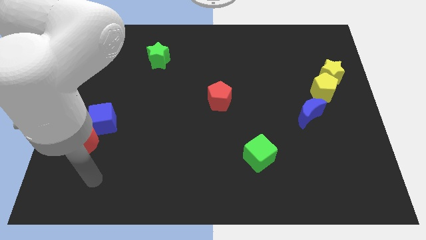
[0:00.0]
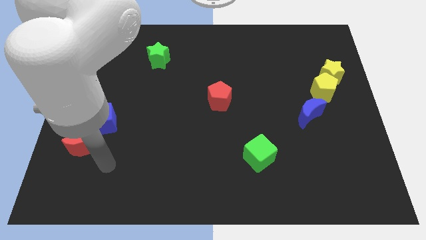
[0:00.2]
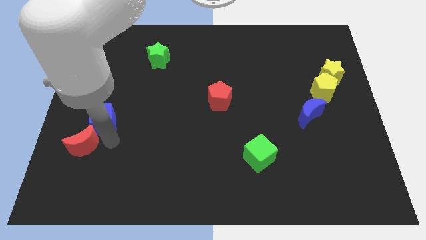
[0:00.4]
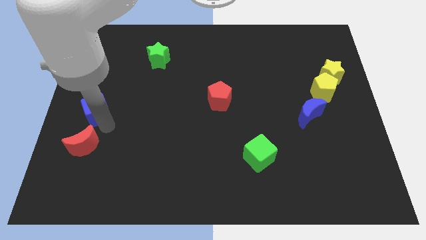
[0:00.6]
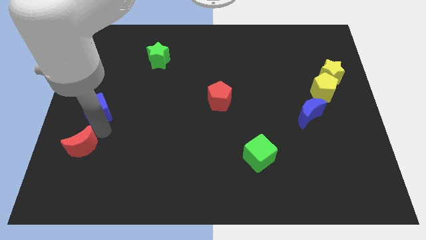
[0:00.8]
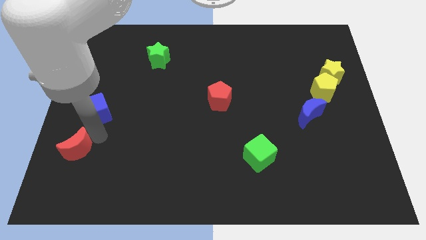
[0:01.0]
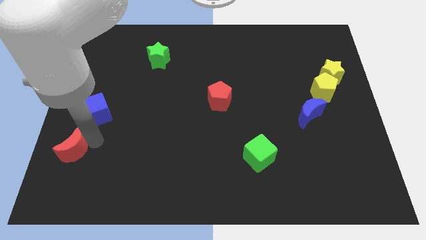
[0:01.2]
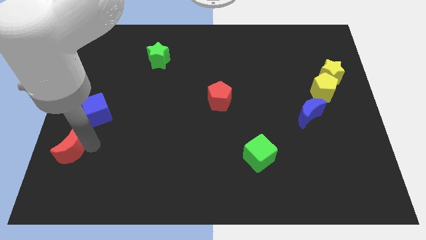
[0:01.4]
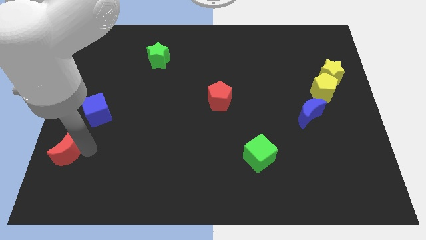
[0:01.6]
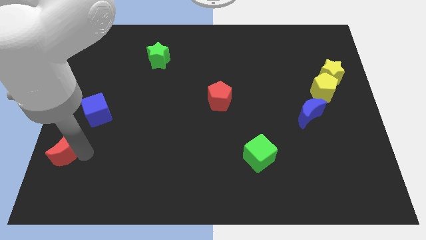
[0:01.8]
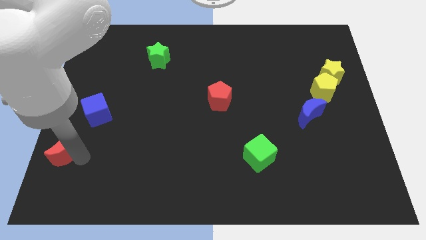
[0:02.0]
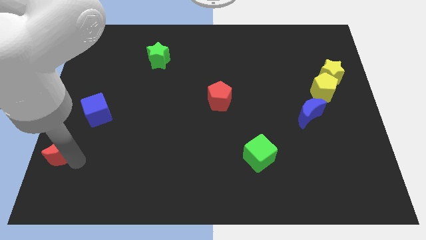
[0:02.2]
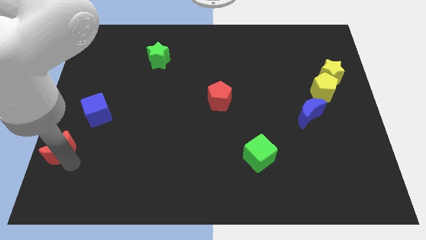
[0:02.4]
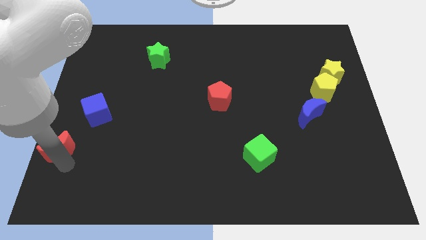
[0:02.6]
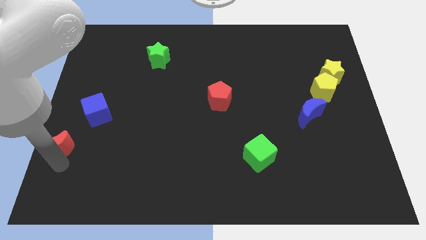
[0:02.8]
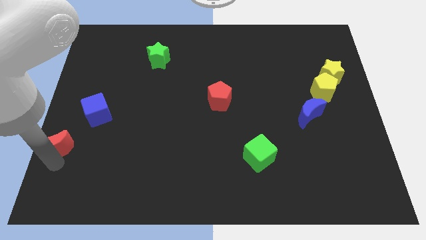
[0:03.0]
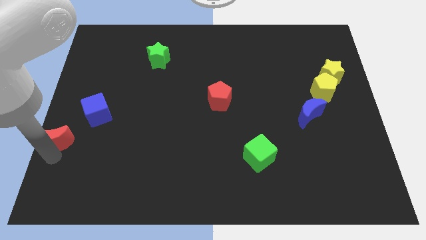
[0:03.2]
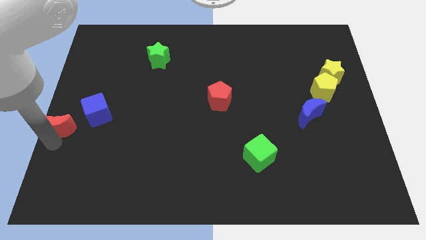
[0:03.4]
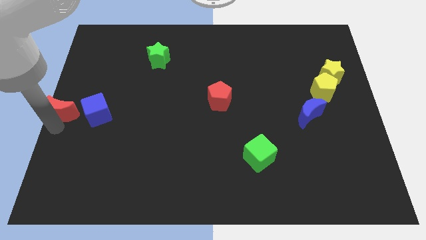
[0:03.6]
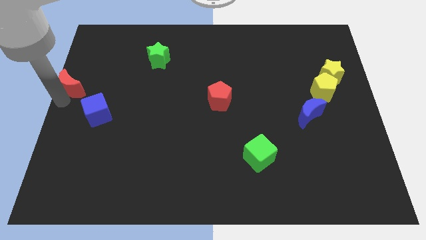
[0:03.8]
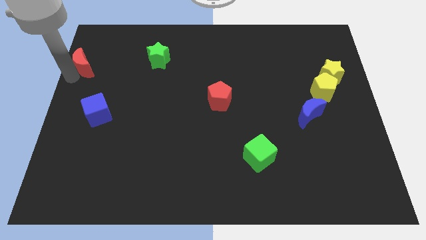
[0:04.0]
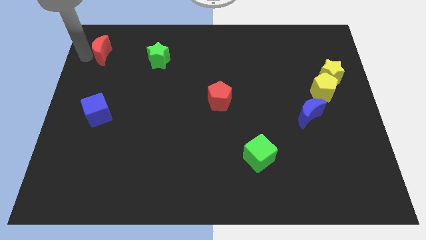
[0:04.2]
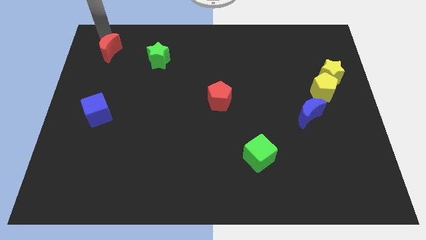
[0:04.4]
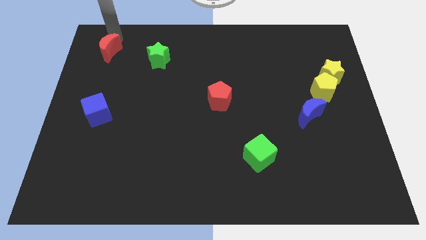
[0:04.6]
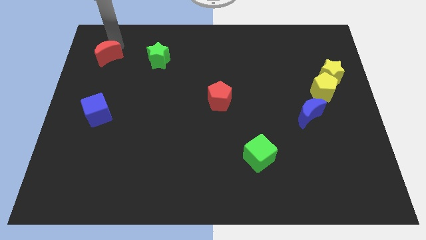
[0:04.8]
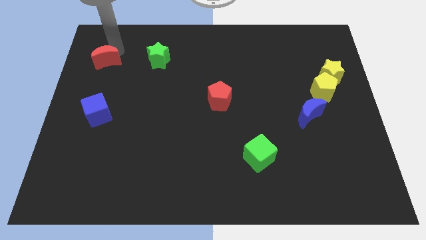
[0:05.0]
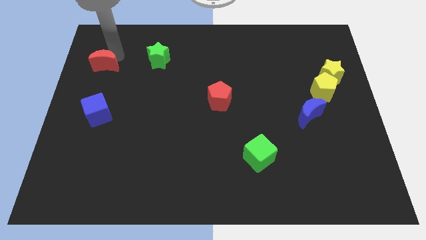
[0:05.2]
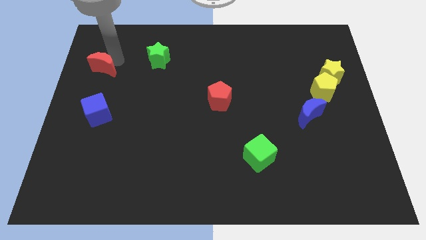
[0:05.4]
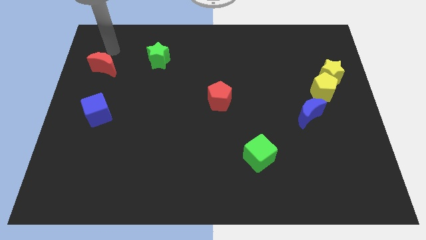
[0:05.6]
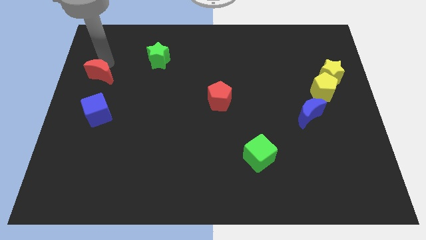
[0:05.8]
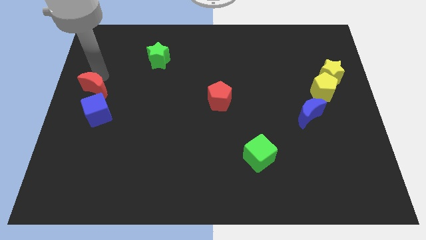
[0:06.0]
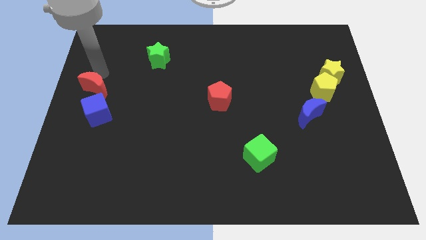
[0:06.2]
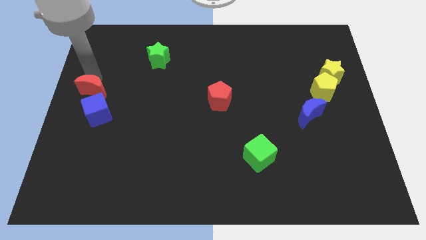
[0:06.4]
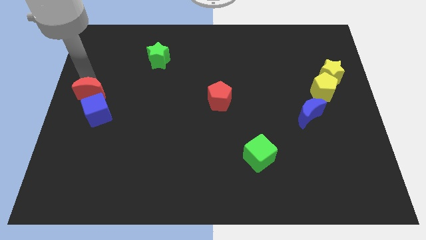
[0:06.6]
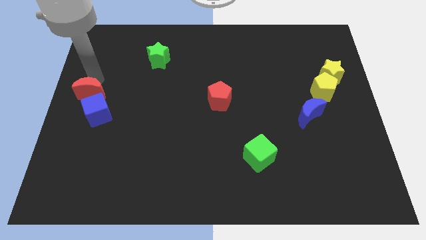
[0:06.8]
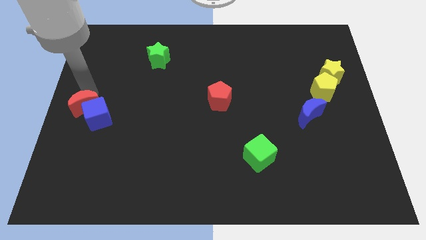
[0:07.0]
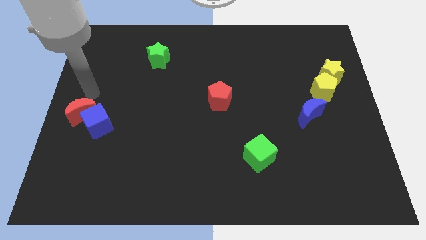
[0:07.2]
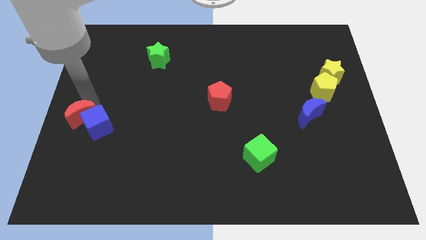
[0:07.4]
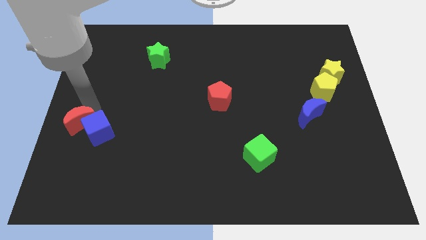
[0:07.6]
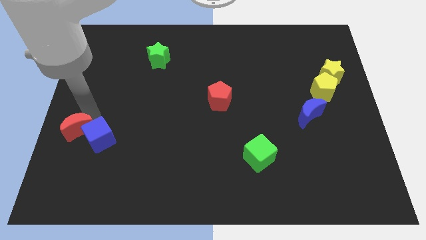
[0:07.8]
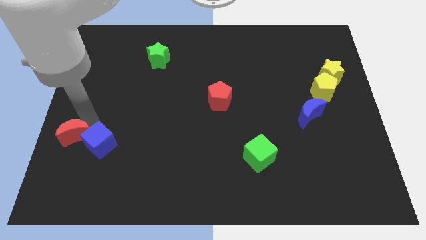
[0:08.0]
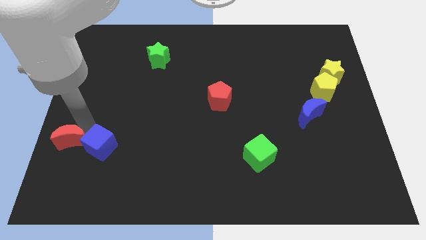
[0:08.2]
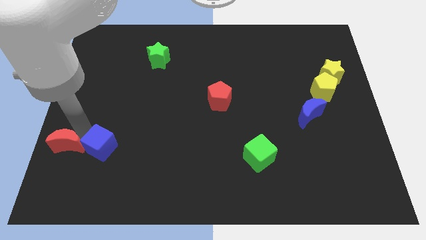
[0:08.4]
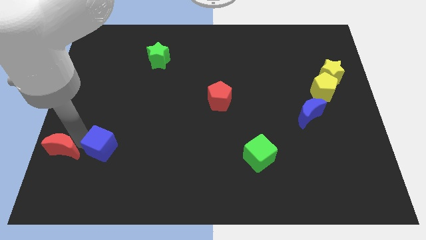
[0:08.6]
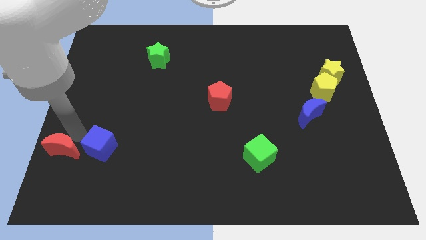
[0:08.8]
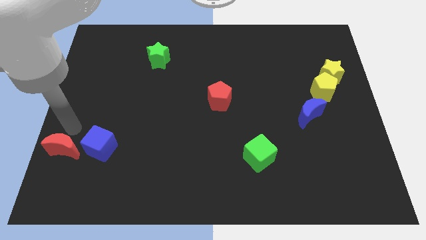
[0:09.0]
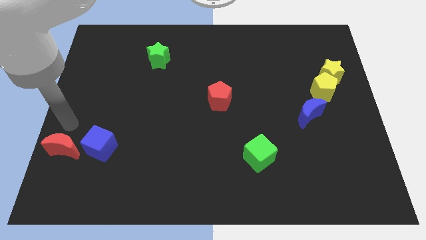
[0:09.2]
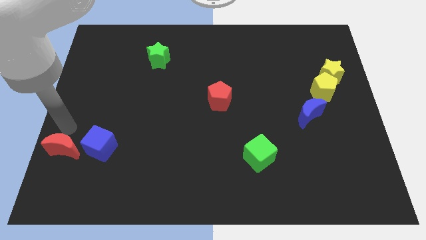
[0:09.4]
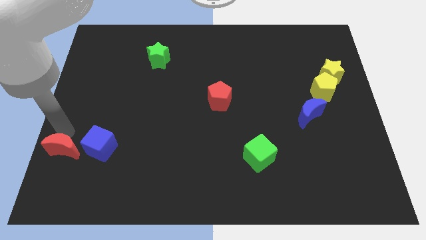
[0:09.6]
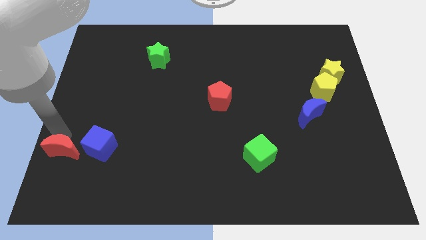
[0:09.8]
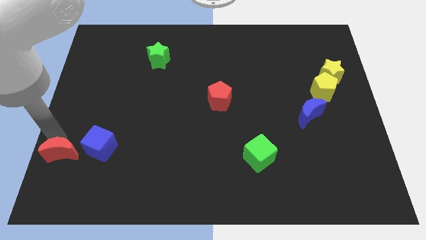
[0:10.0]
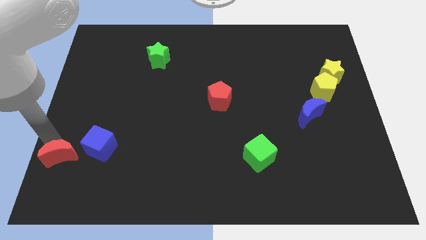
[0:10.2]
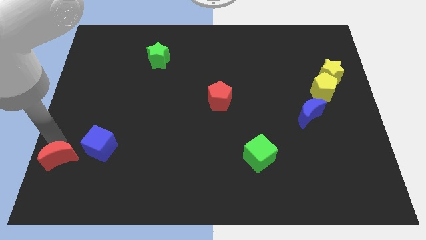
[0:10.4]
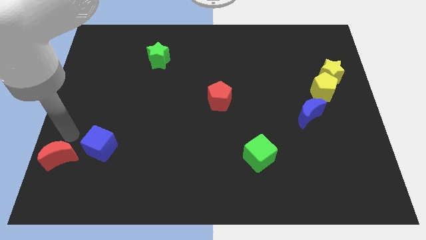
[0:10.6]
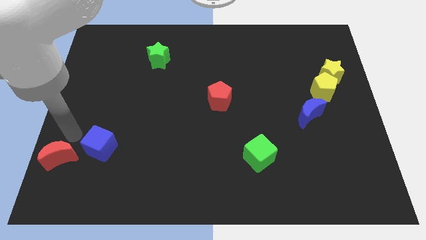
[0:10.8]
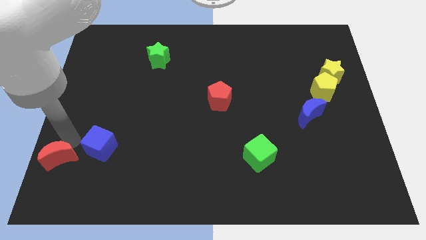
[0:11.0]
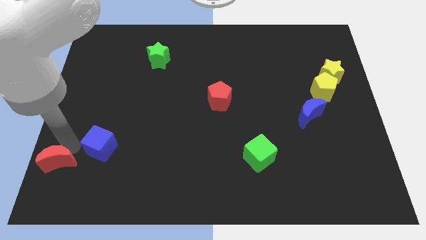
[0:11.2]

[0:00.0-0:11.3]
push the red moon to the bottom left of the board
